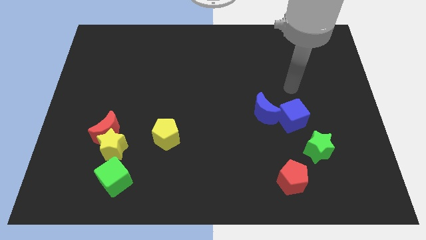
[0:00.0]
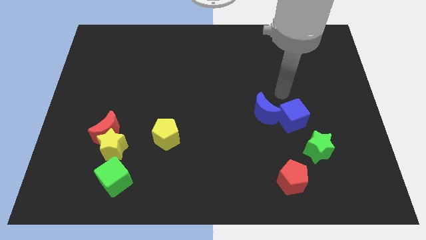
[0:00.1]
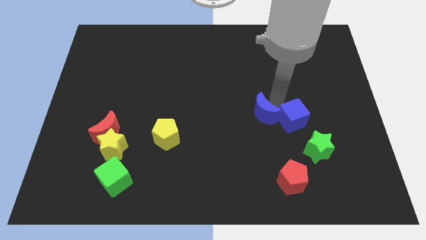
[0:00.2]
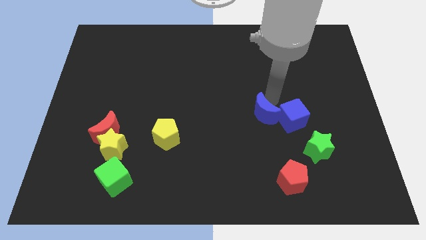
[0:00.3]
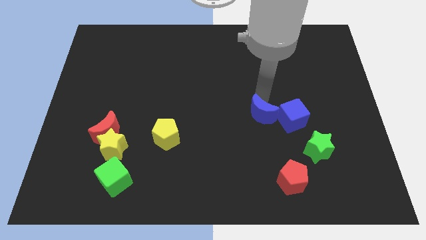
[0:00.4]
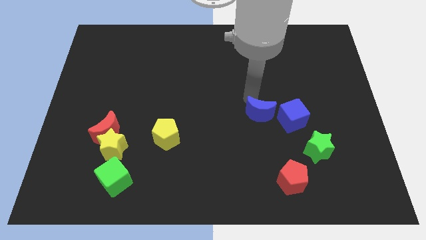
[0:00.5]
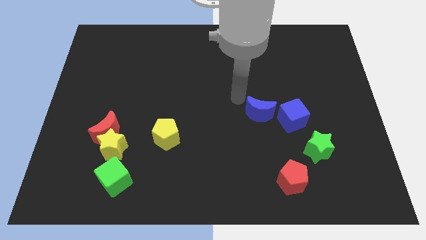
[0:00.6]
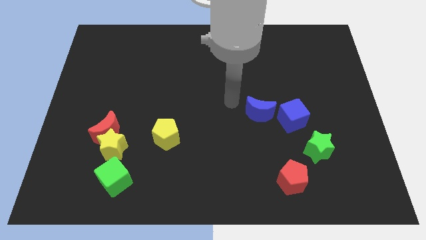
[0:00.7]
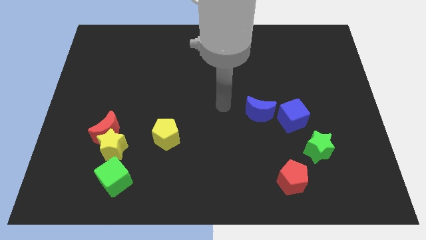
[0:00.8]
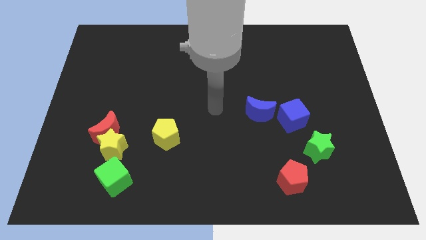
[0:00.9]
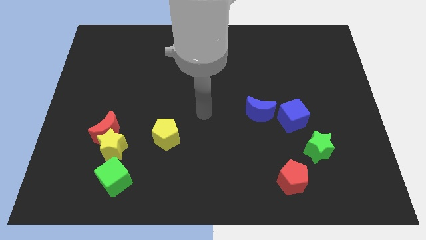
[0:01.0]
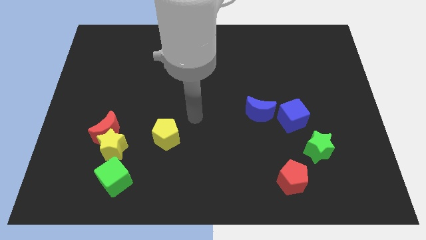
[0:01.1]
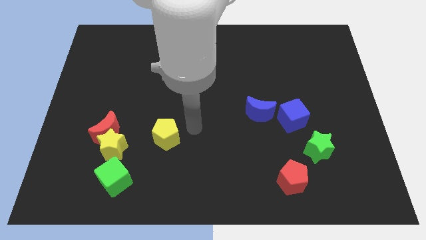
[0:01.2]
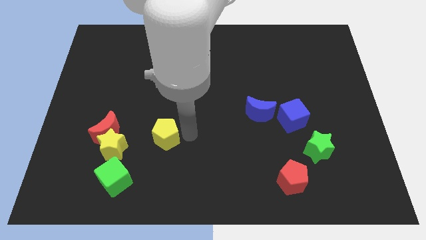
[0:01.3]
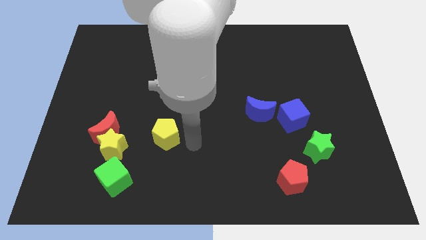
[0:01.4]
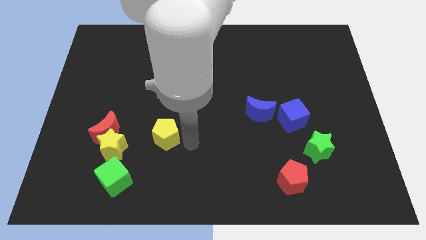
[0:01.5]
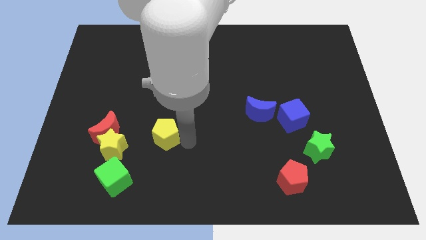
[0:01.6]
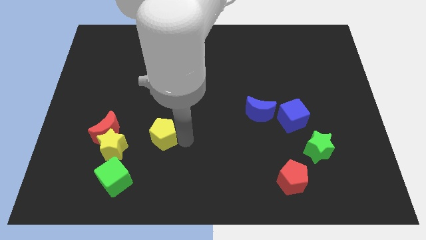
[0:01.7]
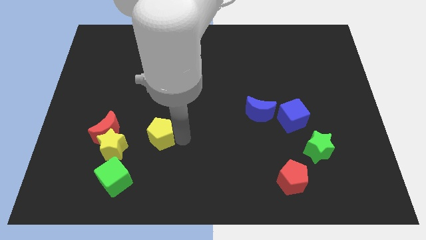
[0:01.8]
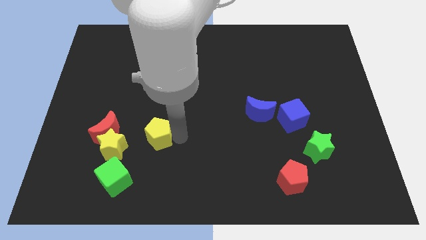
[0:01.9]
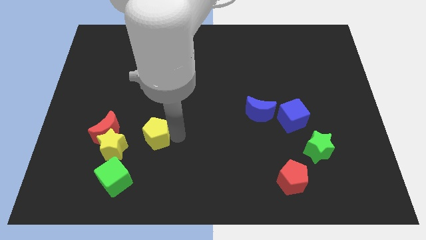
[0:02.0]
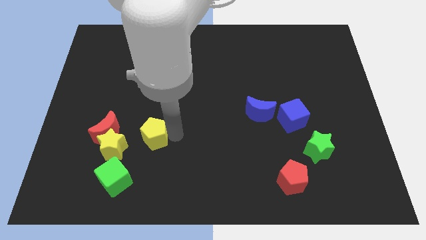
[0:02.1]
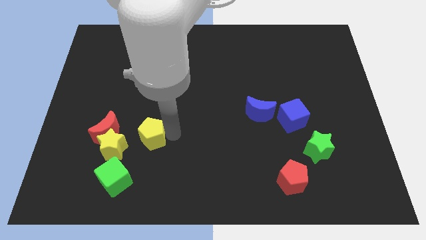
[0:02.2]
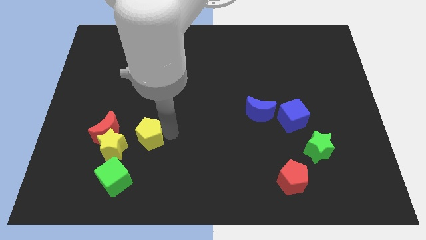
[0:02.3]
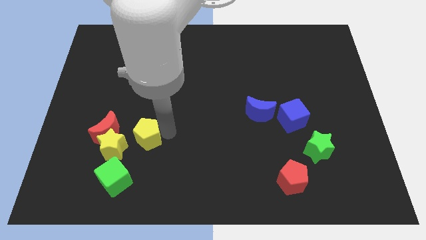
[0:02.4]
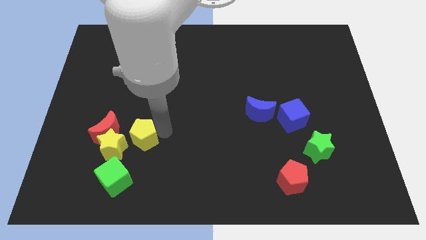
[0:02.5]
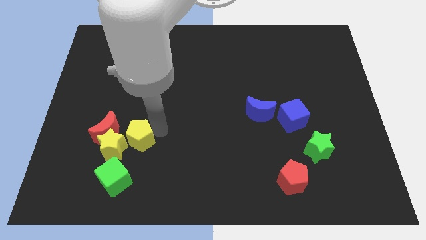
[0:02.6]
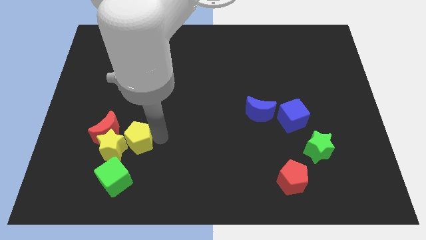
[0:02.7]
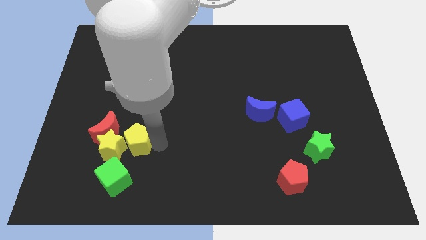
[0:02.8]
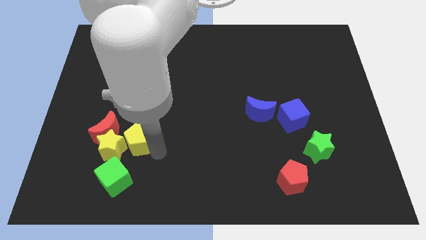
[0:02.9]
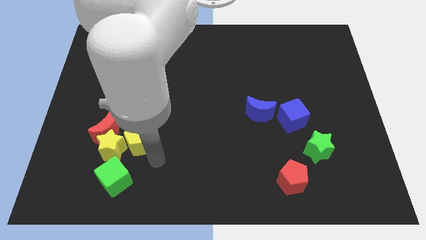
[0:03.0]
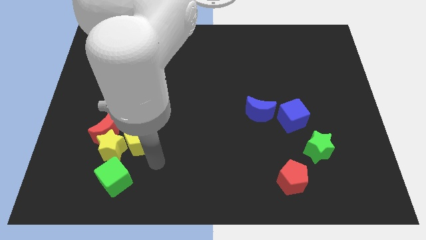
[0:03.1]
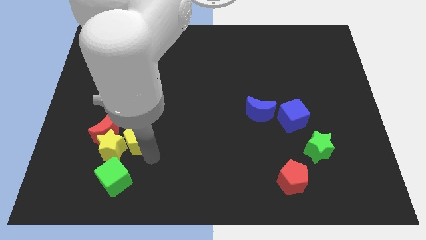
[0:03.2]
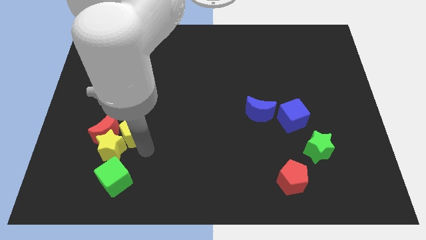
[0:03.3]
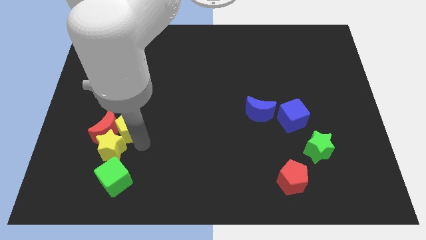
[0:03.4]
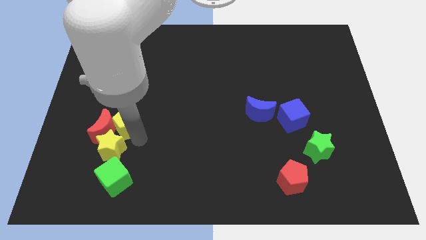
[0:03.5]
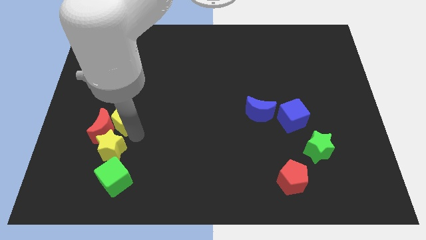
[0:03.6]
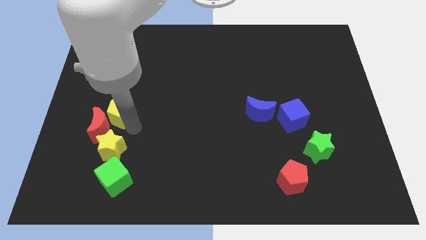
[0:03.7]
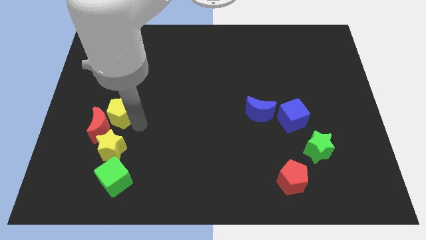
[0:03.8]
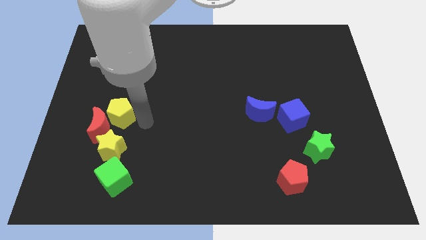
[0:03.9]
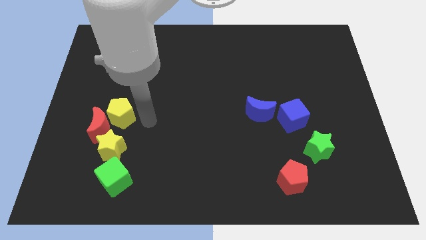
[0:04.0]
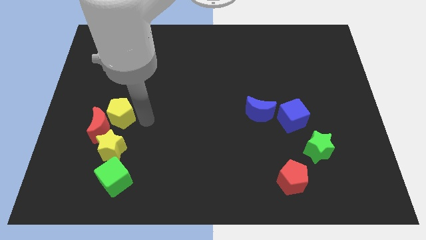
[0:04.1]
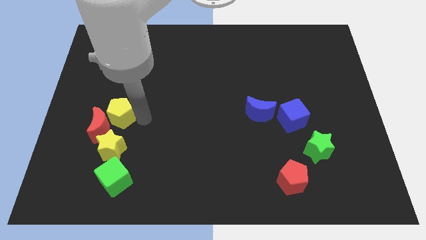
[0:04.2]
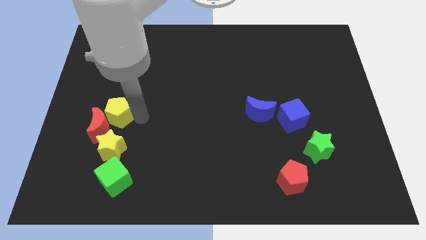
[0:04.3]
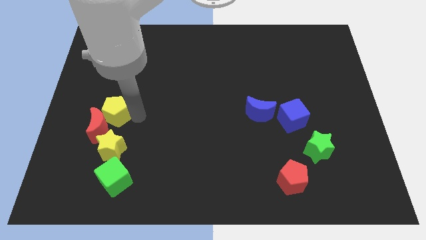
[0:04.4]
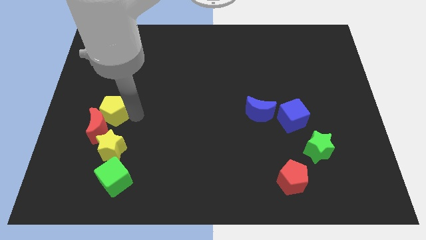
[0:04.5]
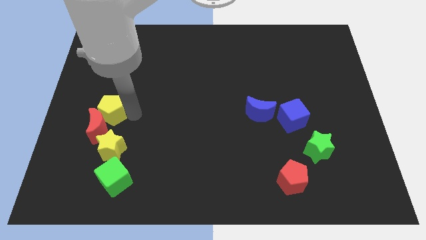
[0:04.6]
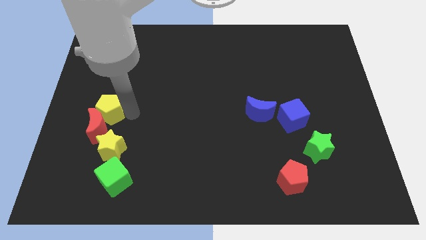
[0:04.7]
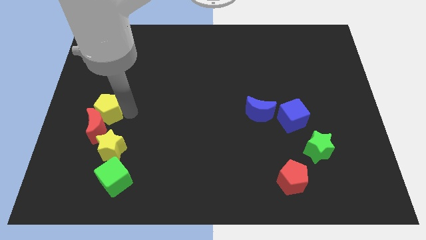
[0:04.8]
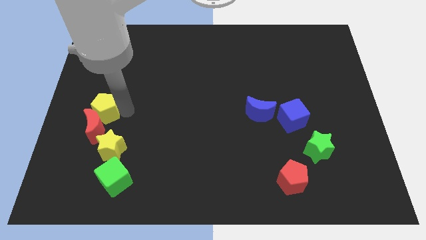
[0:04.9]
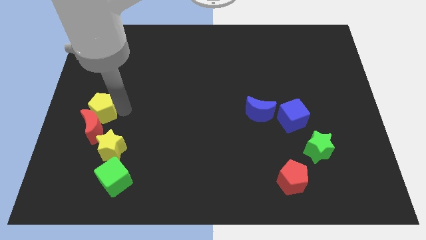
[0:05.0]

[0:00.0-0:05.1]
slide the yellow pentagon to the center left

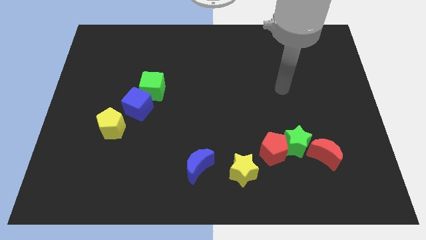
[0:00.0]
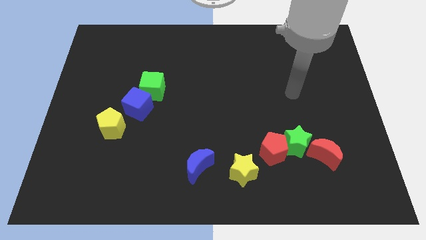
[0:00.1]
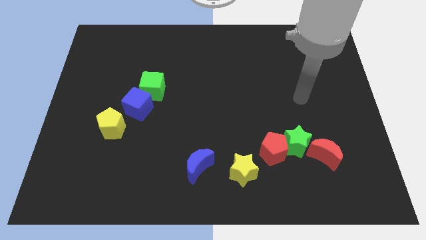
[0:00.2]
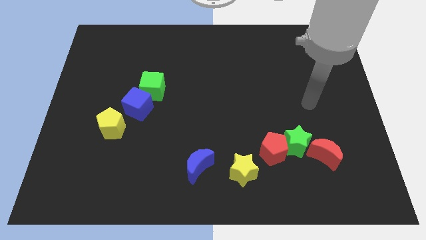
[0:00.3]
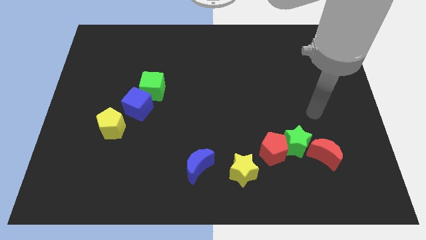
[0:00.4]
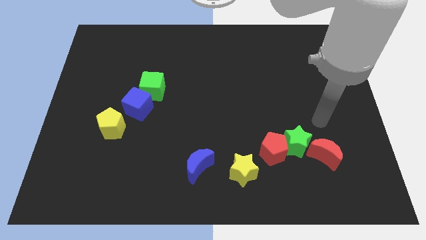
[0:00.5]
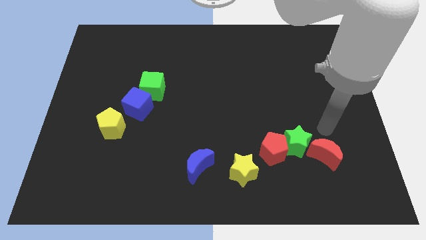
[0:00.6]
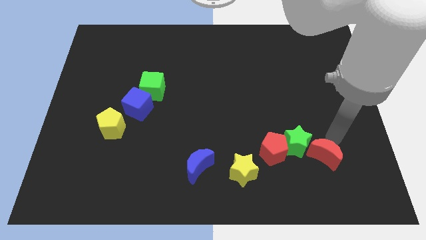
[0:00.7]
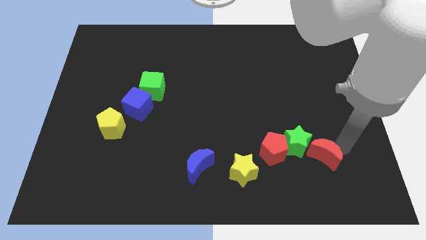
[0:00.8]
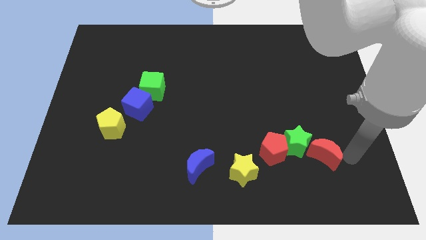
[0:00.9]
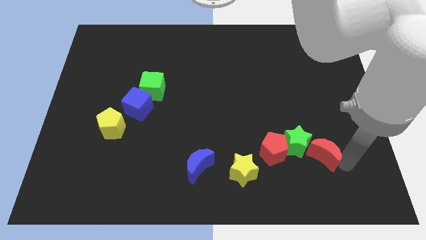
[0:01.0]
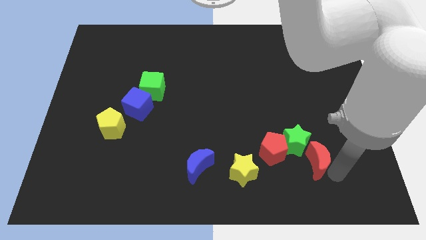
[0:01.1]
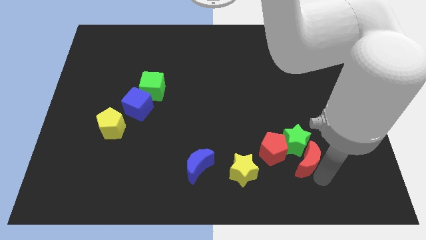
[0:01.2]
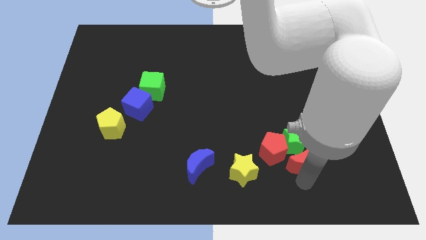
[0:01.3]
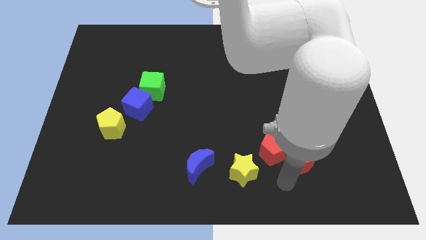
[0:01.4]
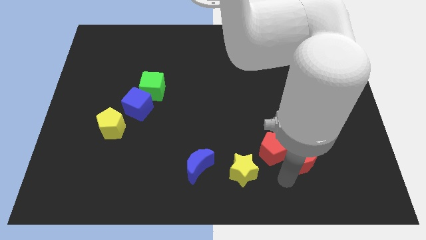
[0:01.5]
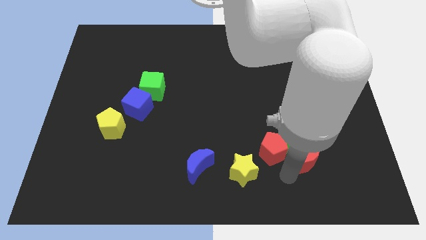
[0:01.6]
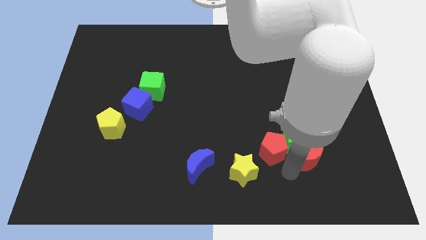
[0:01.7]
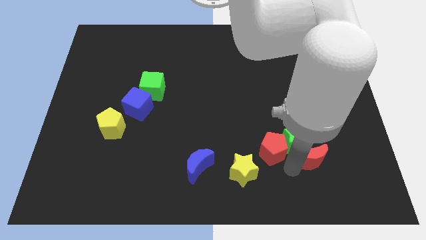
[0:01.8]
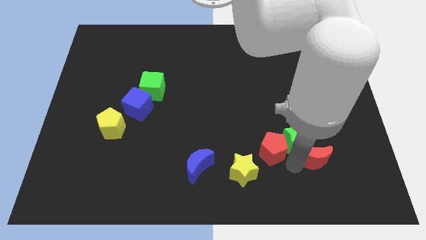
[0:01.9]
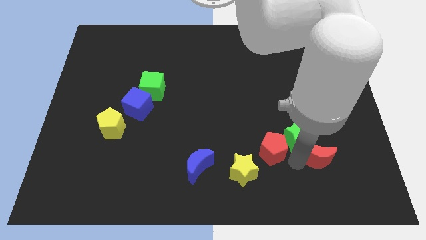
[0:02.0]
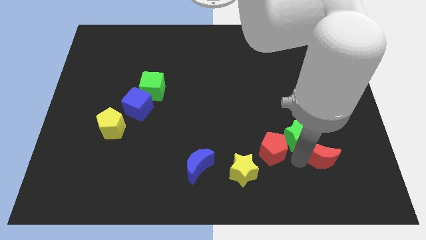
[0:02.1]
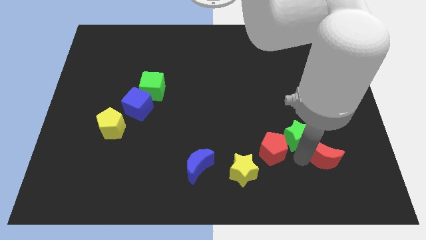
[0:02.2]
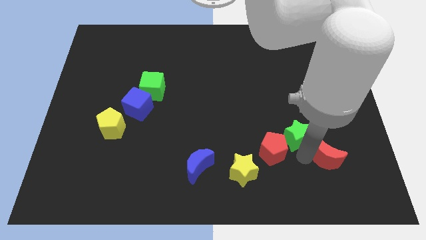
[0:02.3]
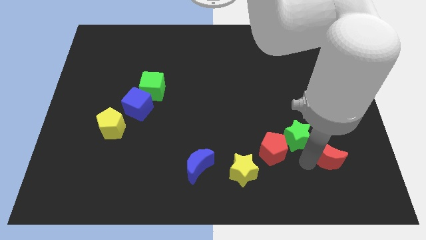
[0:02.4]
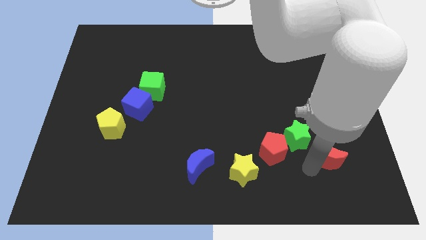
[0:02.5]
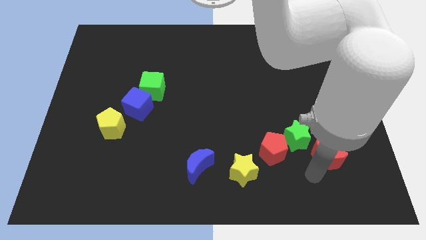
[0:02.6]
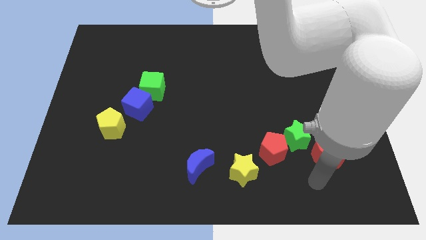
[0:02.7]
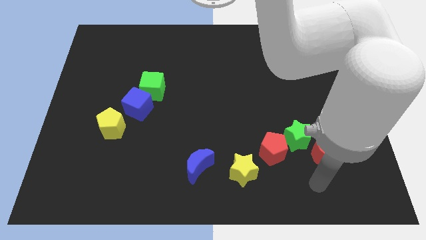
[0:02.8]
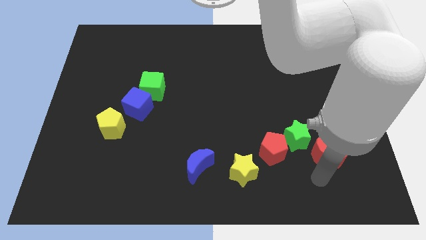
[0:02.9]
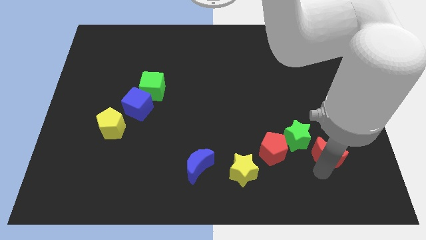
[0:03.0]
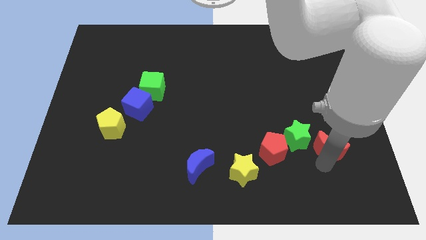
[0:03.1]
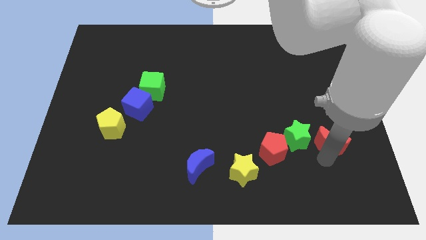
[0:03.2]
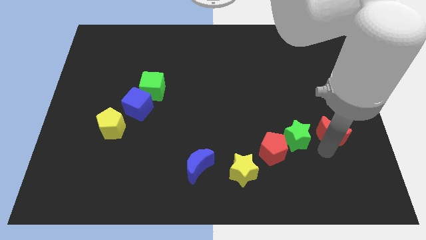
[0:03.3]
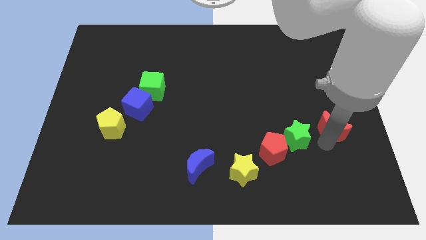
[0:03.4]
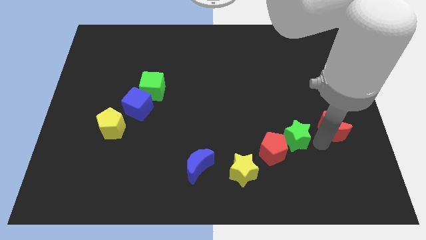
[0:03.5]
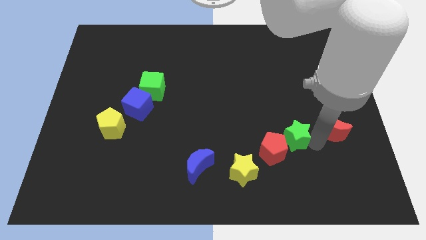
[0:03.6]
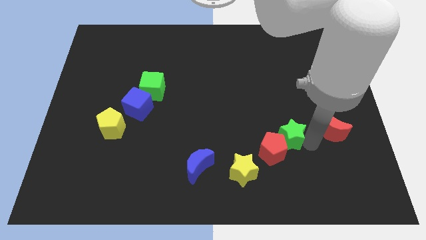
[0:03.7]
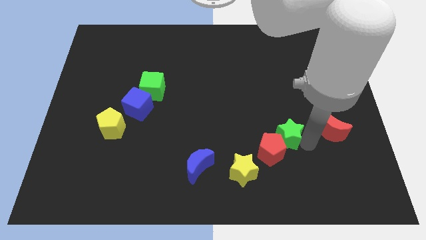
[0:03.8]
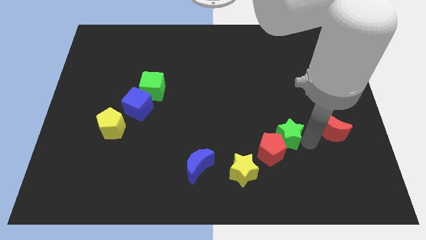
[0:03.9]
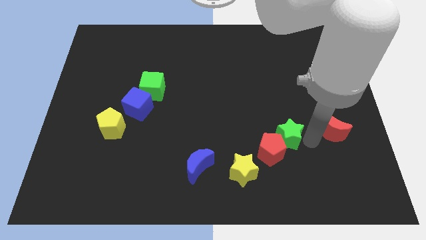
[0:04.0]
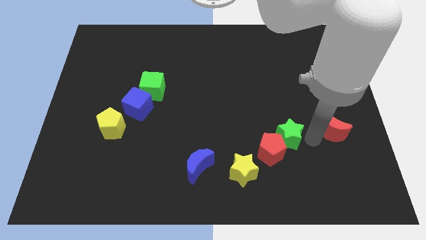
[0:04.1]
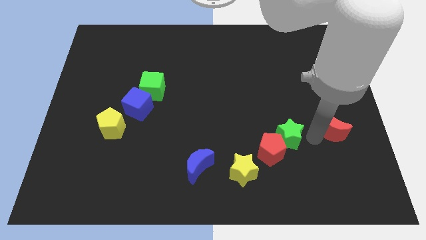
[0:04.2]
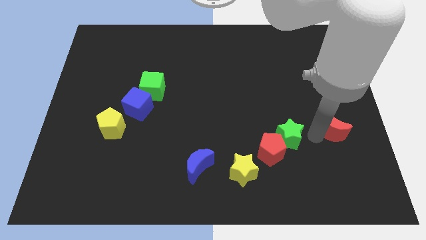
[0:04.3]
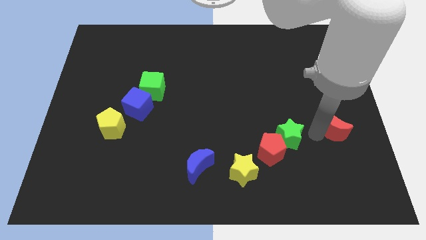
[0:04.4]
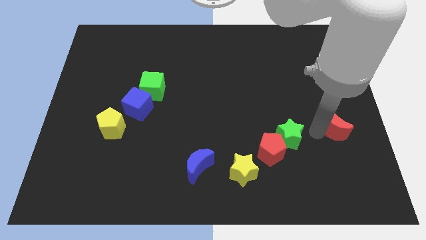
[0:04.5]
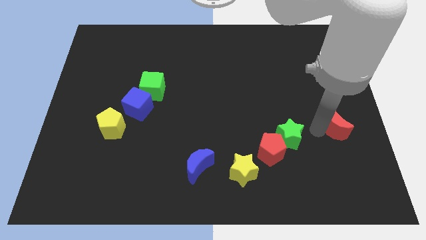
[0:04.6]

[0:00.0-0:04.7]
move the red moon to the center right
